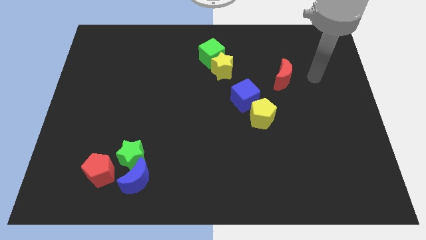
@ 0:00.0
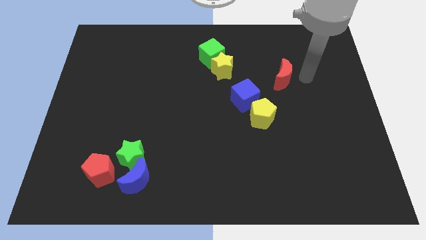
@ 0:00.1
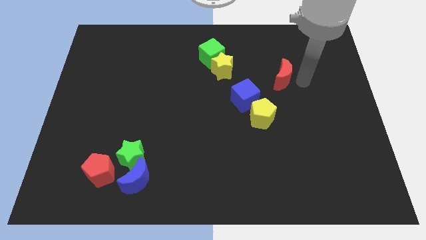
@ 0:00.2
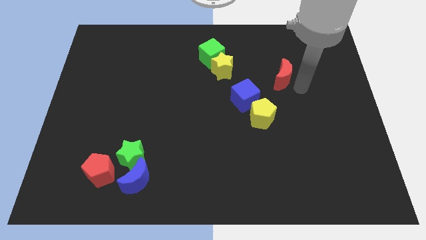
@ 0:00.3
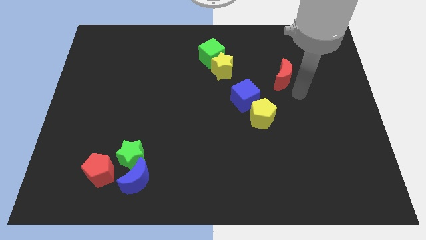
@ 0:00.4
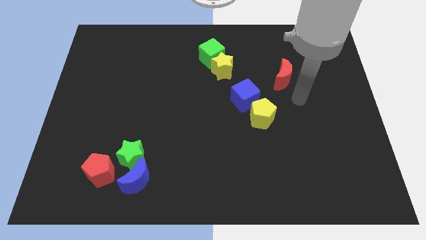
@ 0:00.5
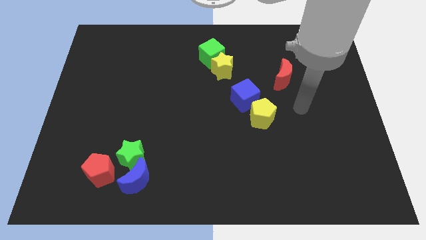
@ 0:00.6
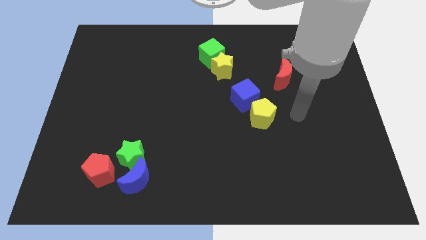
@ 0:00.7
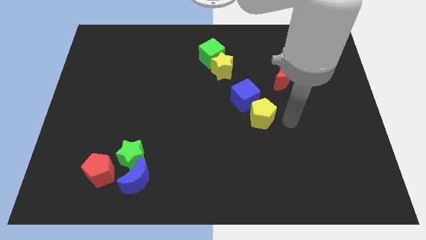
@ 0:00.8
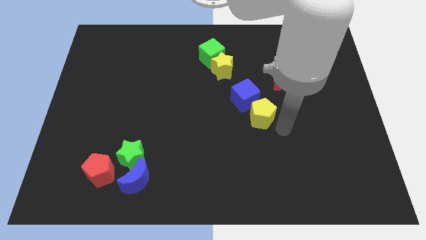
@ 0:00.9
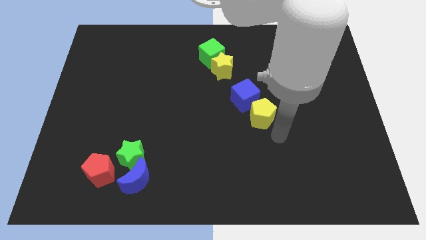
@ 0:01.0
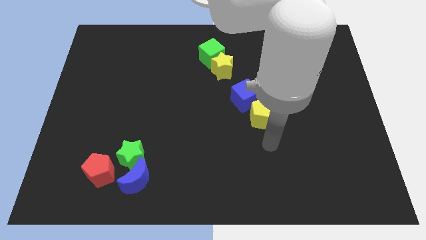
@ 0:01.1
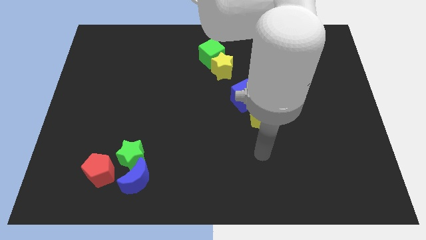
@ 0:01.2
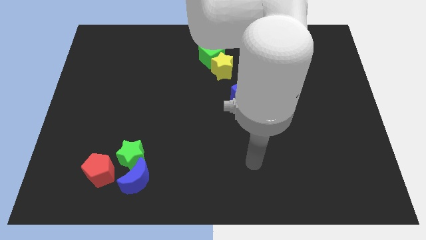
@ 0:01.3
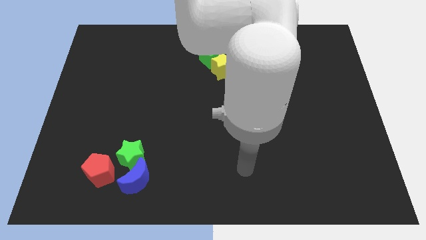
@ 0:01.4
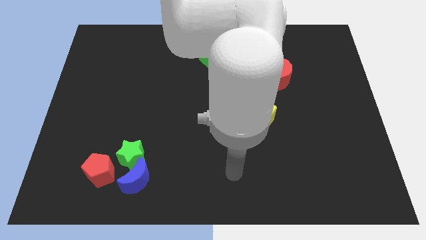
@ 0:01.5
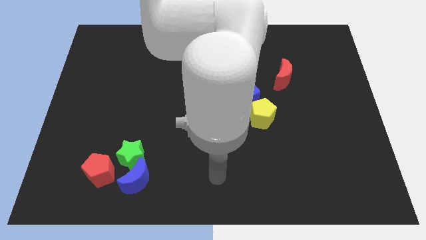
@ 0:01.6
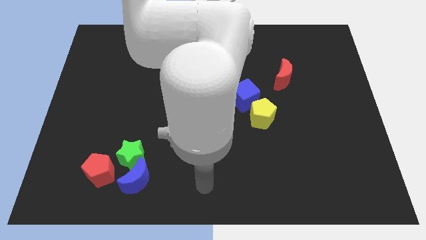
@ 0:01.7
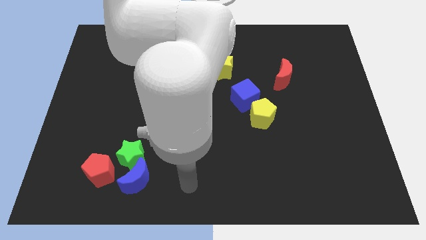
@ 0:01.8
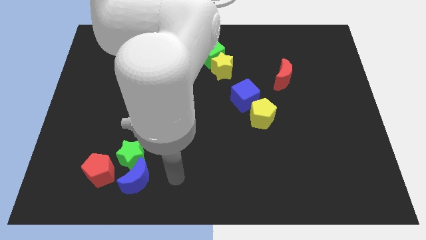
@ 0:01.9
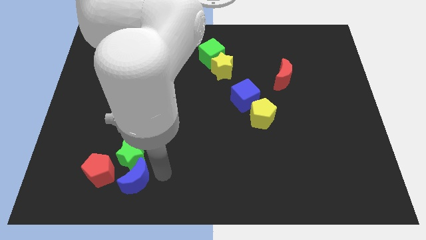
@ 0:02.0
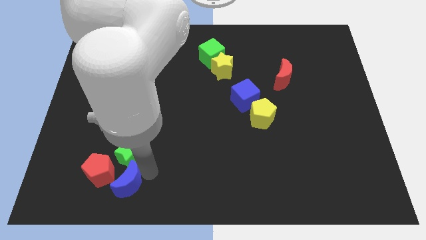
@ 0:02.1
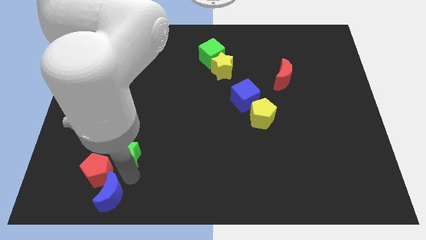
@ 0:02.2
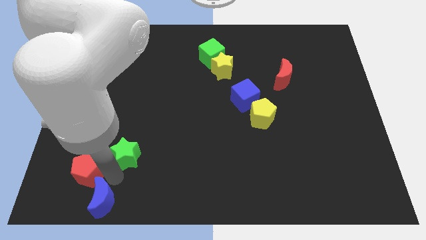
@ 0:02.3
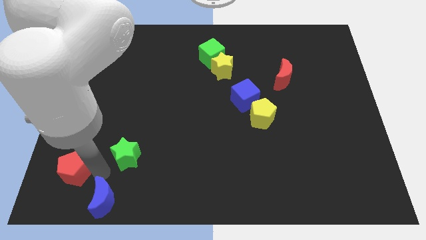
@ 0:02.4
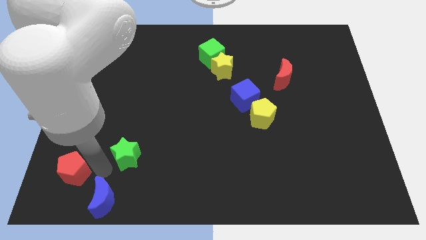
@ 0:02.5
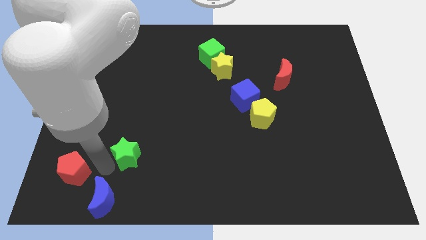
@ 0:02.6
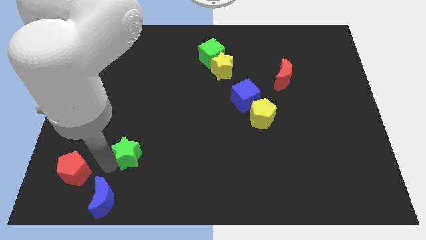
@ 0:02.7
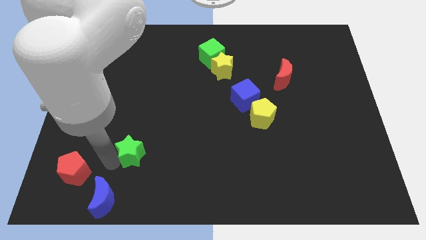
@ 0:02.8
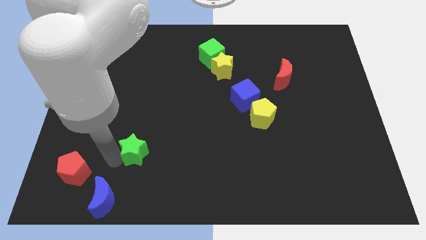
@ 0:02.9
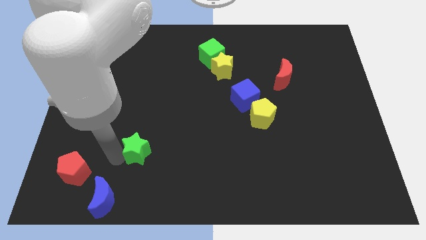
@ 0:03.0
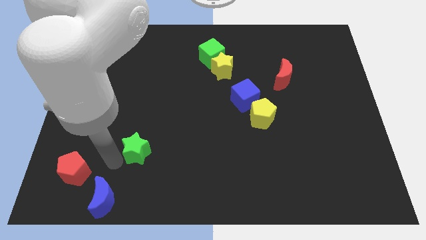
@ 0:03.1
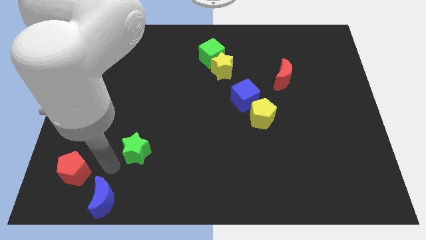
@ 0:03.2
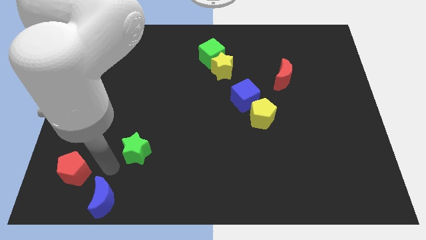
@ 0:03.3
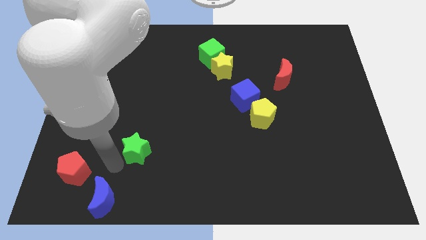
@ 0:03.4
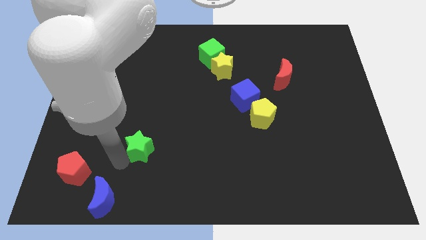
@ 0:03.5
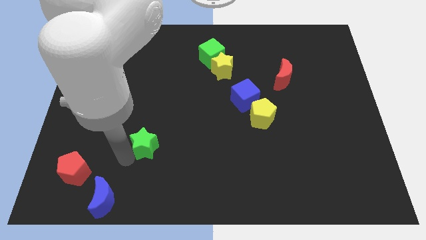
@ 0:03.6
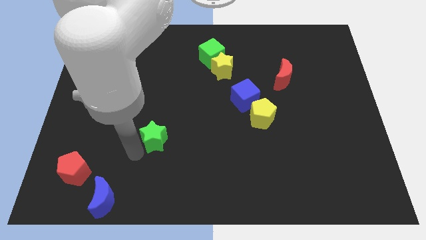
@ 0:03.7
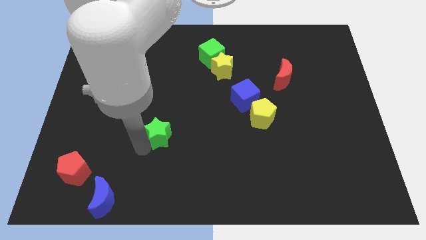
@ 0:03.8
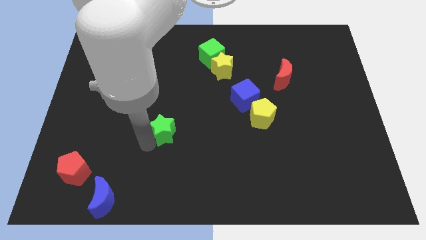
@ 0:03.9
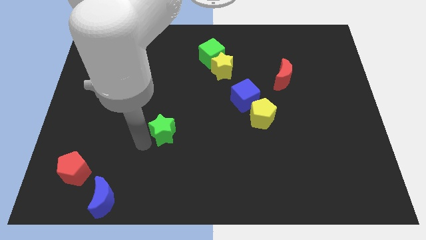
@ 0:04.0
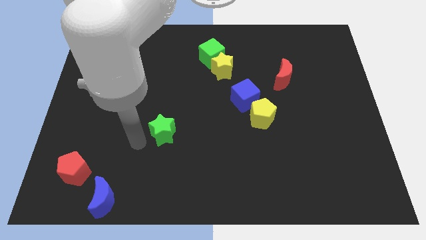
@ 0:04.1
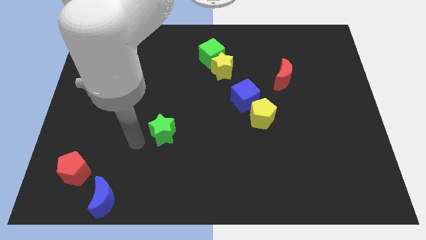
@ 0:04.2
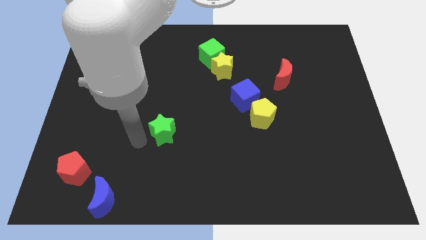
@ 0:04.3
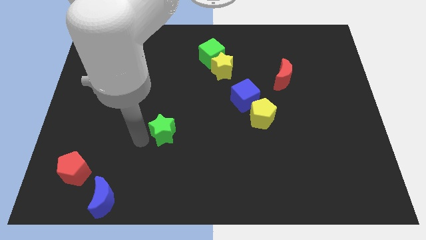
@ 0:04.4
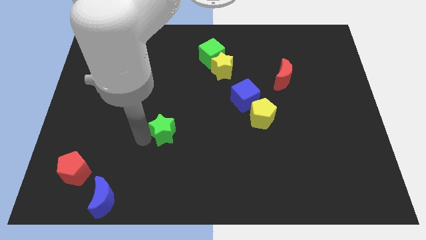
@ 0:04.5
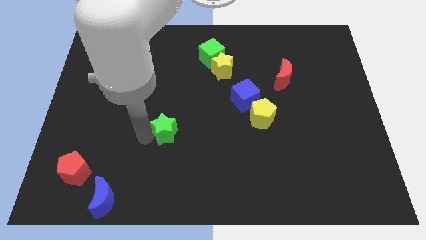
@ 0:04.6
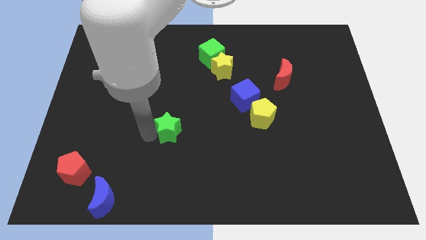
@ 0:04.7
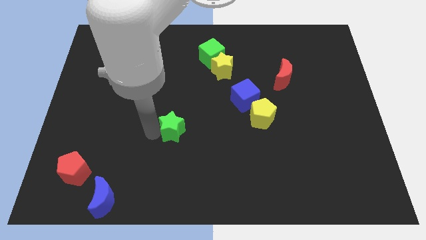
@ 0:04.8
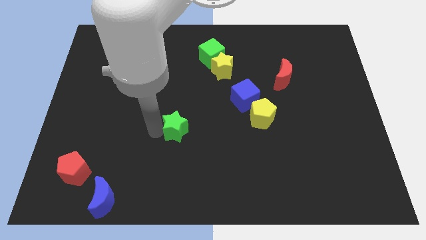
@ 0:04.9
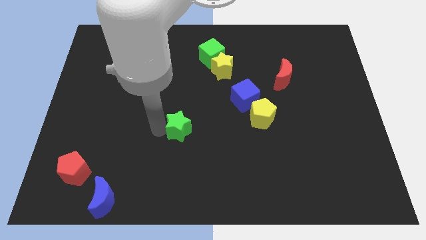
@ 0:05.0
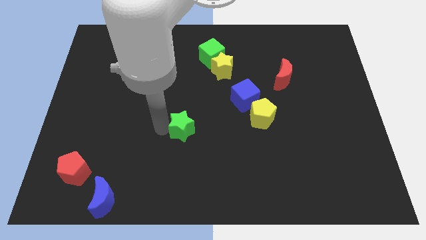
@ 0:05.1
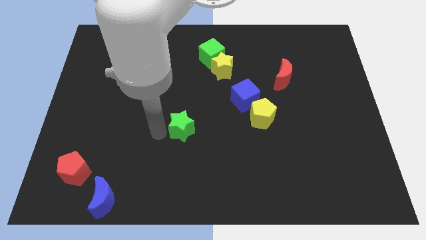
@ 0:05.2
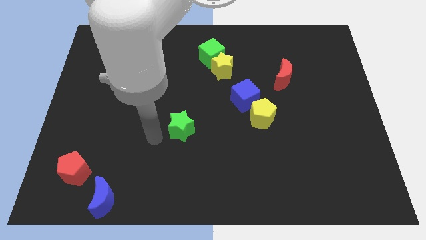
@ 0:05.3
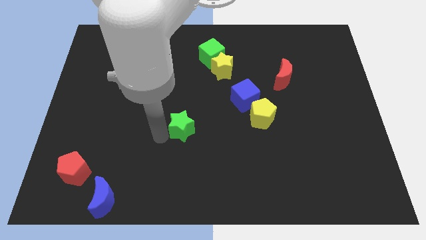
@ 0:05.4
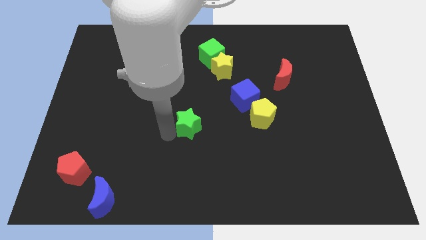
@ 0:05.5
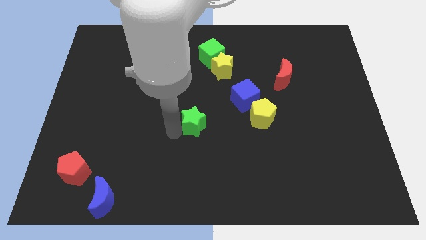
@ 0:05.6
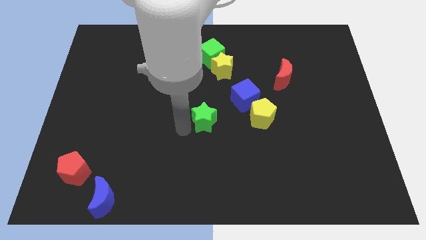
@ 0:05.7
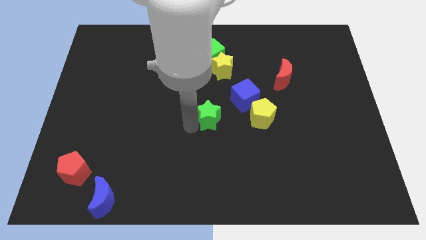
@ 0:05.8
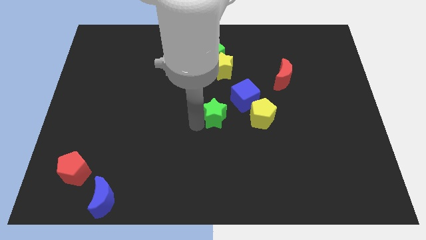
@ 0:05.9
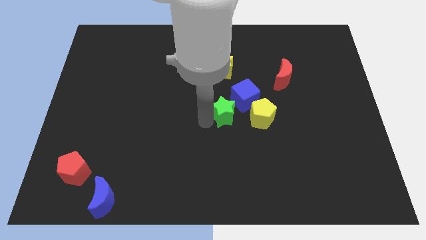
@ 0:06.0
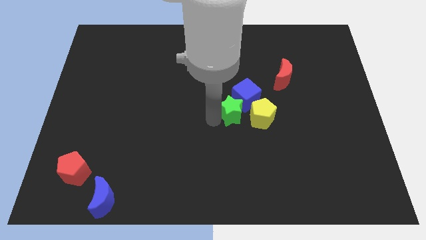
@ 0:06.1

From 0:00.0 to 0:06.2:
move the green star to the blue cube

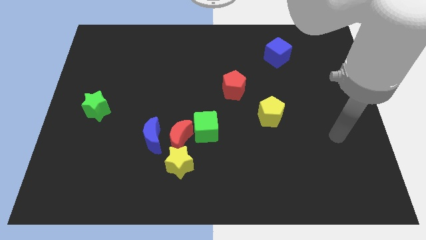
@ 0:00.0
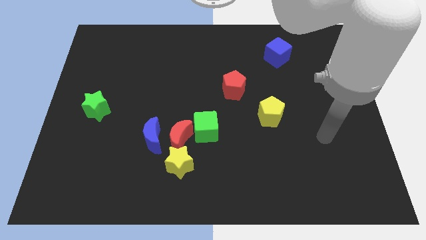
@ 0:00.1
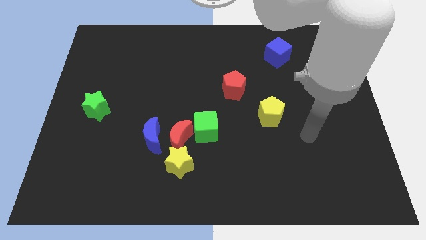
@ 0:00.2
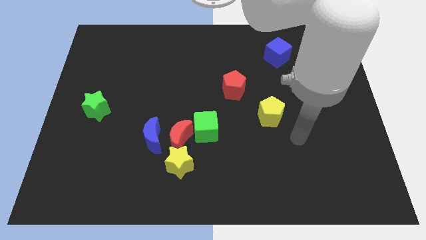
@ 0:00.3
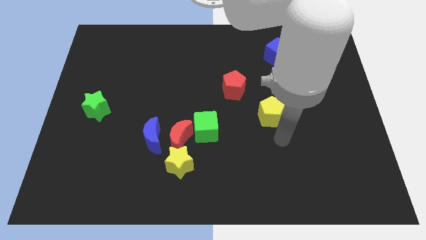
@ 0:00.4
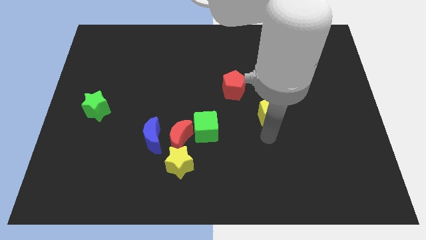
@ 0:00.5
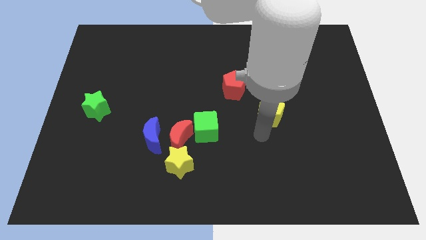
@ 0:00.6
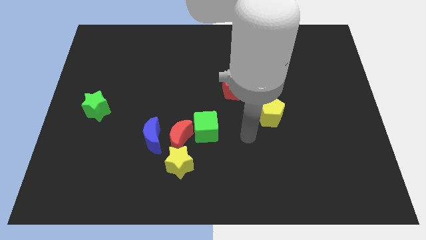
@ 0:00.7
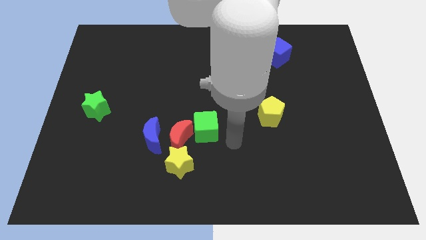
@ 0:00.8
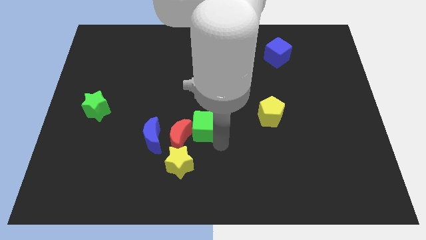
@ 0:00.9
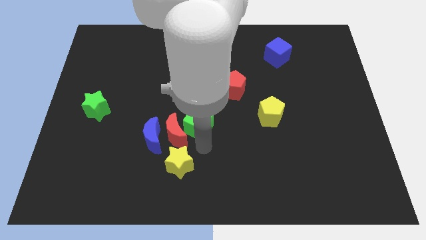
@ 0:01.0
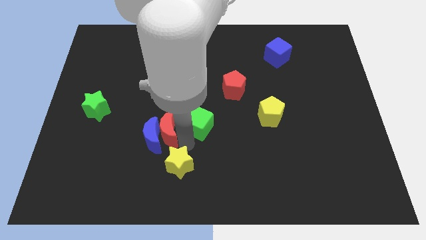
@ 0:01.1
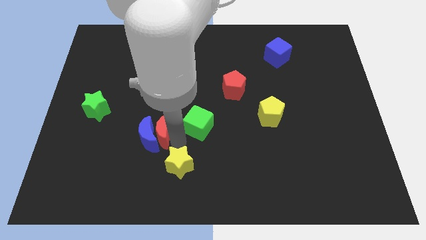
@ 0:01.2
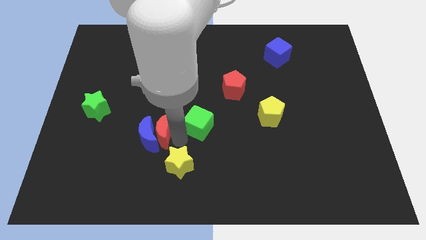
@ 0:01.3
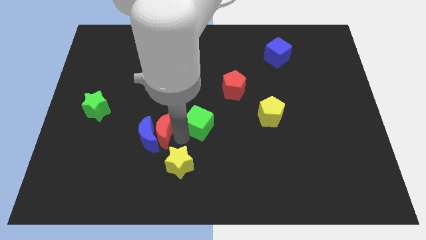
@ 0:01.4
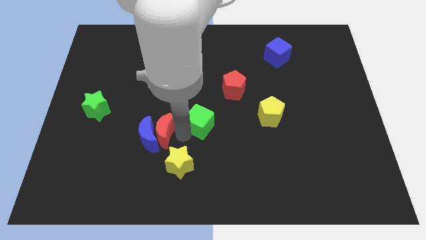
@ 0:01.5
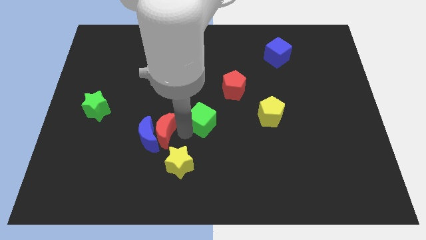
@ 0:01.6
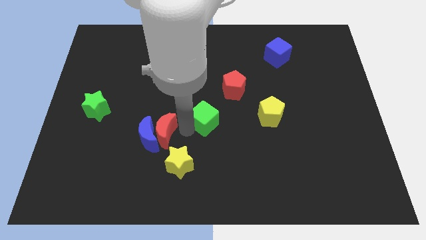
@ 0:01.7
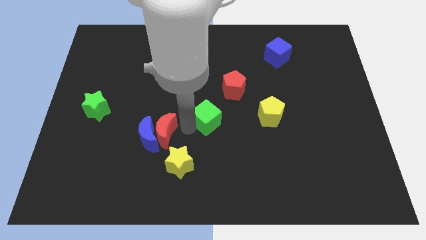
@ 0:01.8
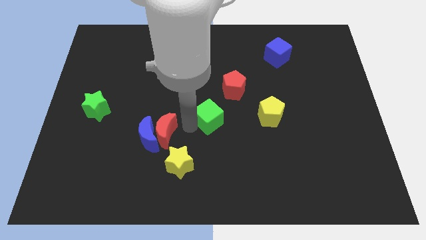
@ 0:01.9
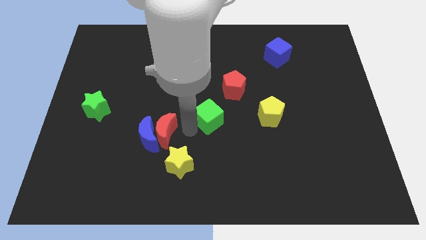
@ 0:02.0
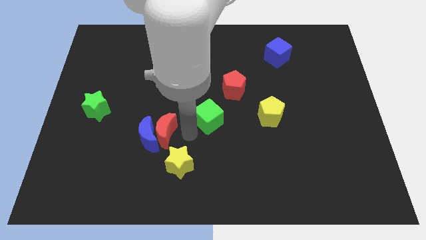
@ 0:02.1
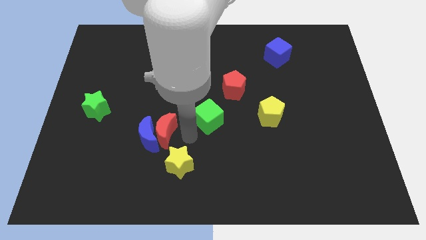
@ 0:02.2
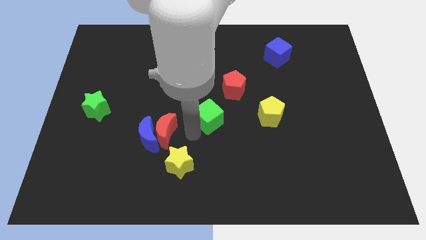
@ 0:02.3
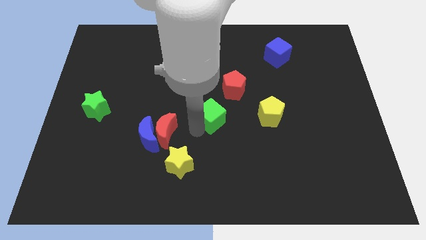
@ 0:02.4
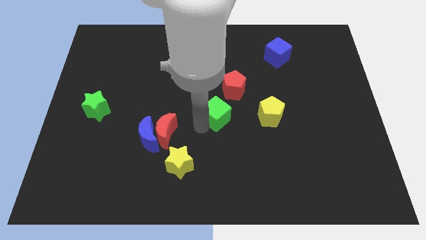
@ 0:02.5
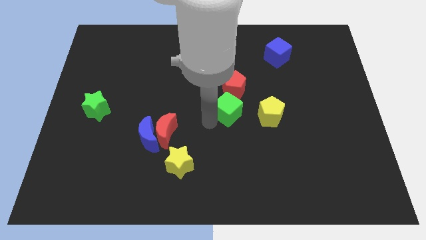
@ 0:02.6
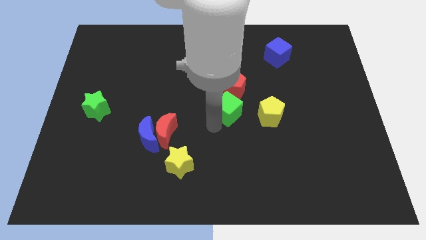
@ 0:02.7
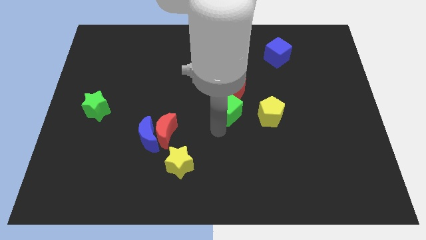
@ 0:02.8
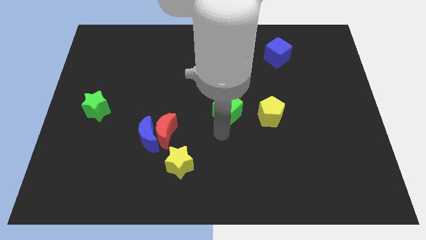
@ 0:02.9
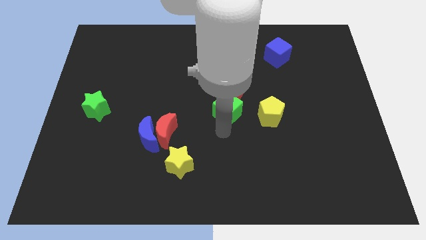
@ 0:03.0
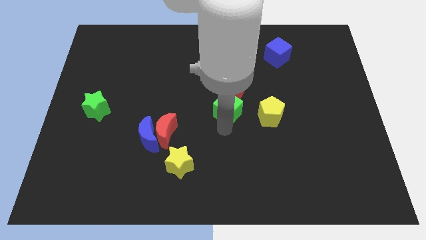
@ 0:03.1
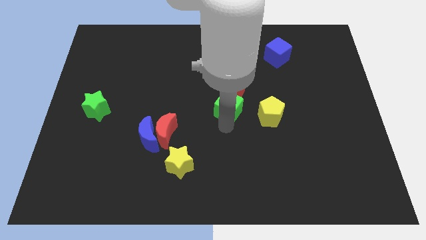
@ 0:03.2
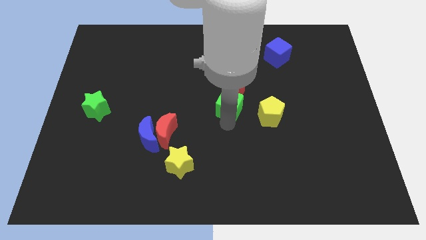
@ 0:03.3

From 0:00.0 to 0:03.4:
push the green cube towards the red pentagon
